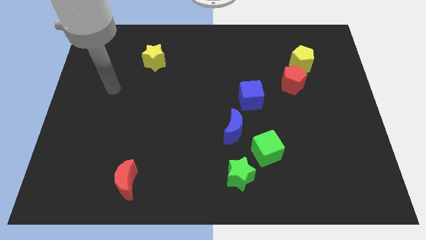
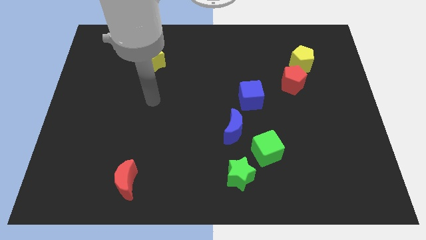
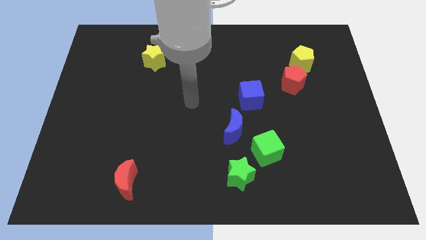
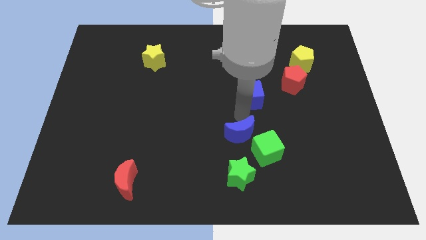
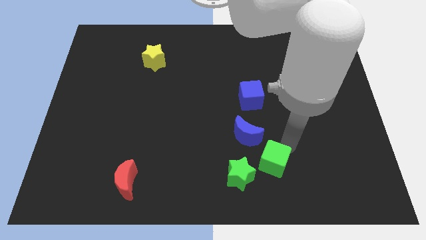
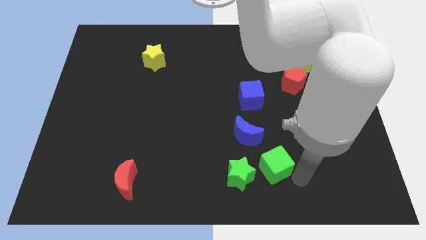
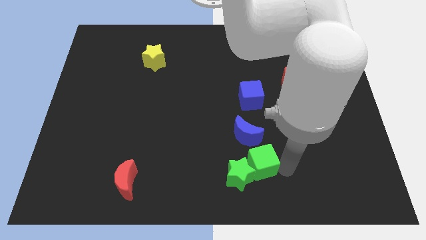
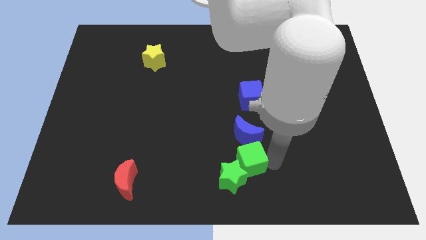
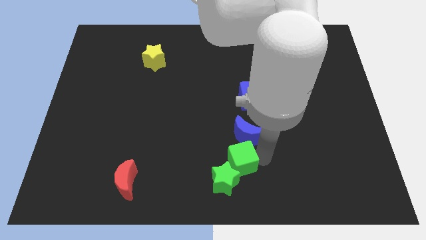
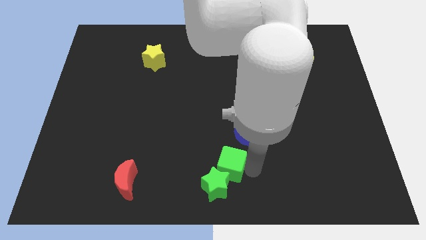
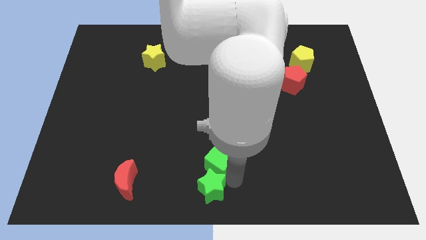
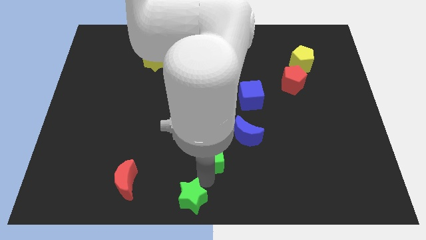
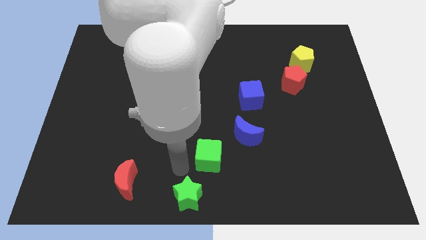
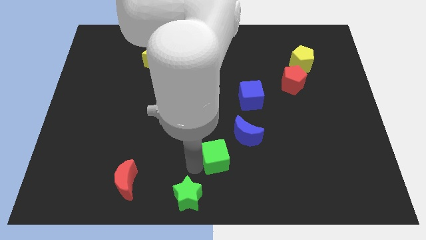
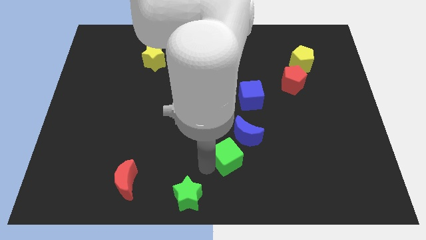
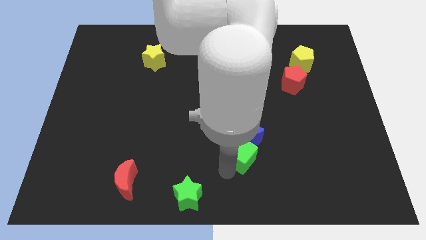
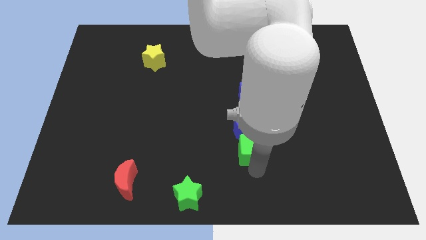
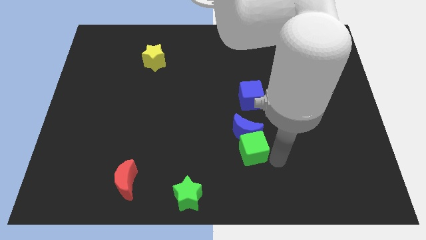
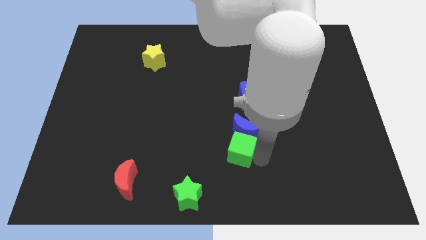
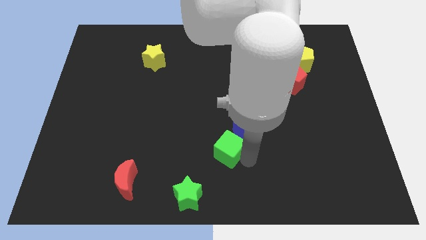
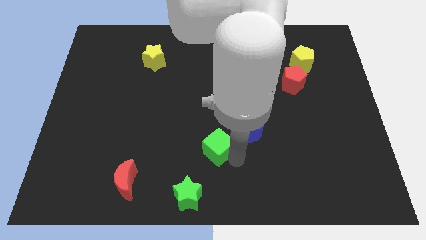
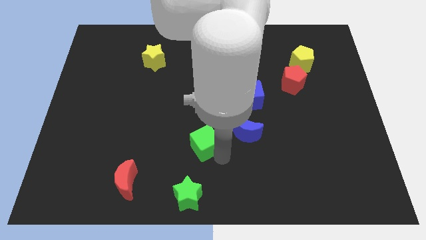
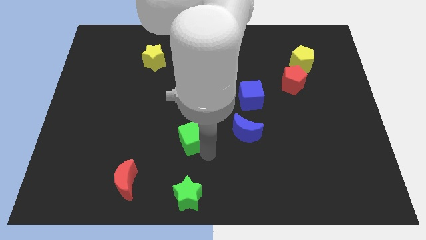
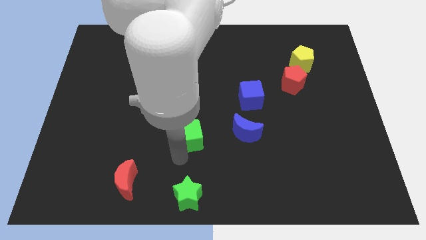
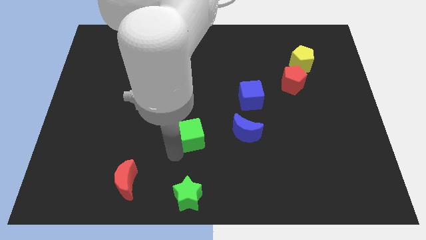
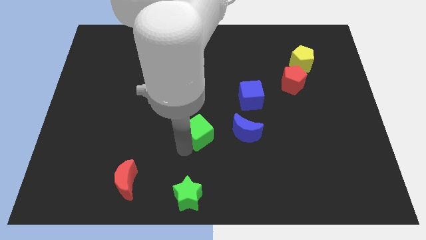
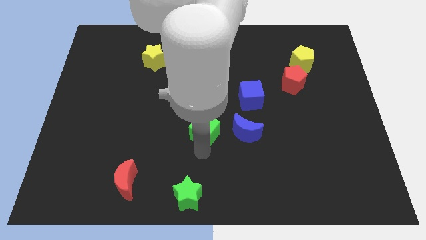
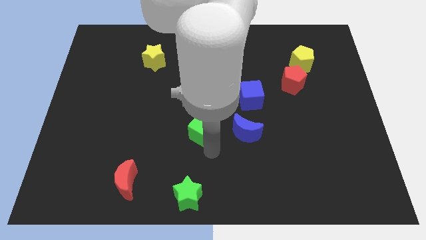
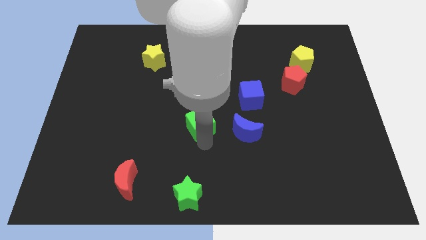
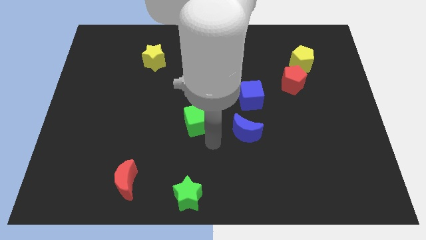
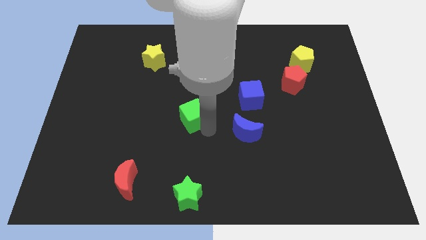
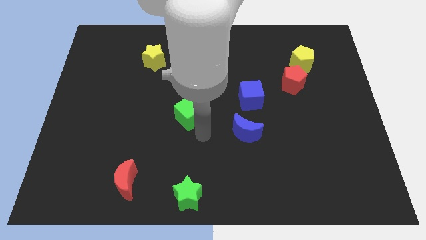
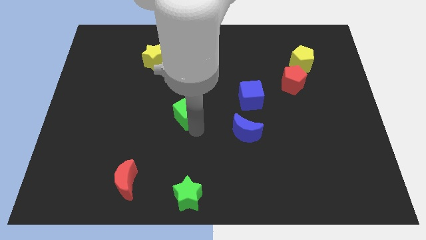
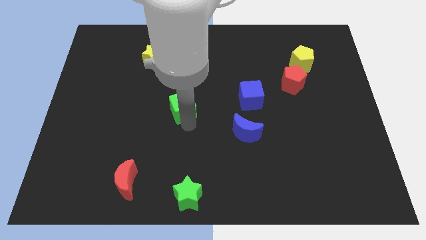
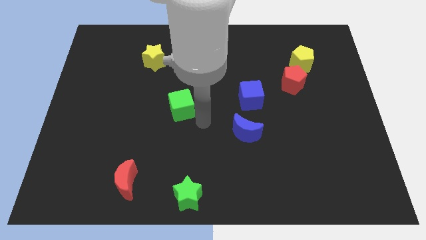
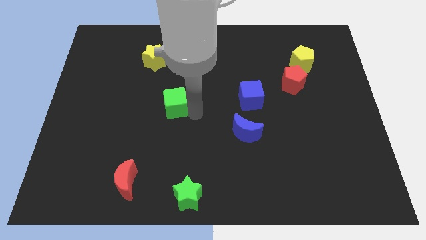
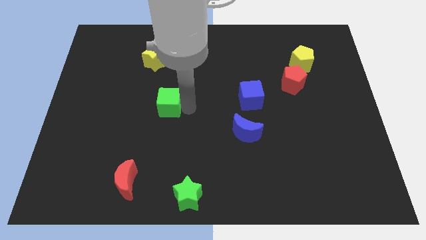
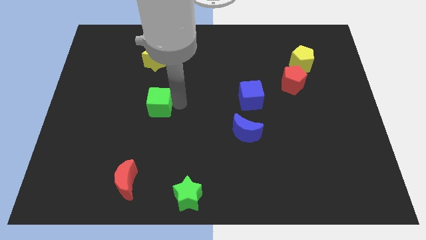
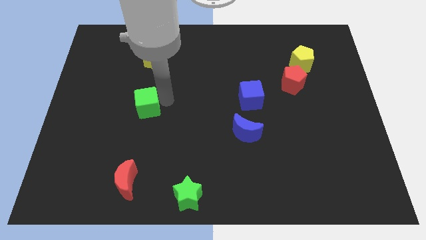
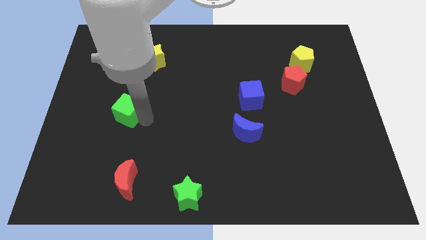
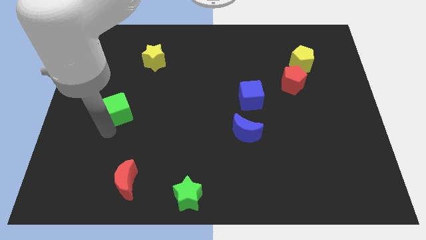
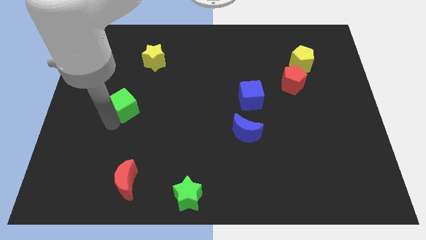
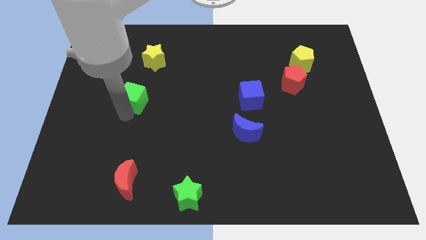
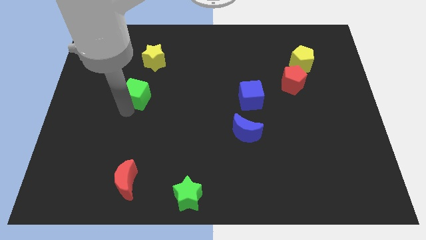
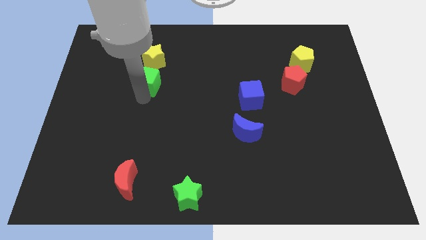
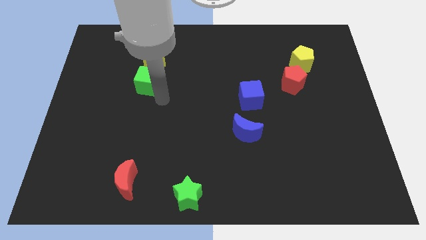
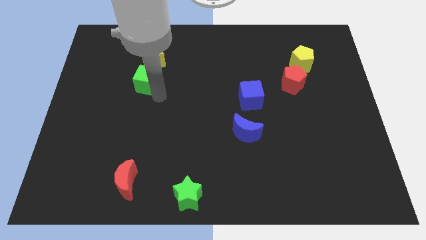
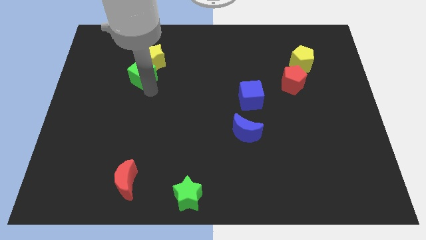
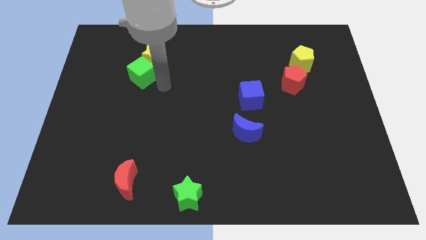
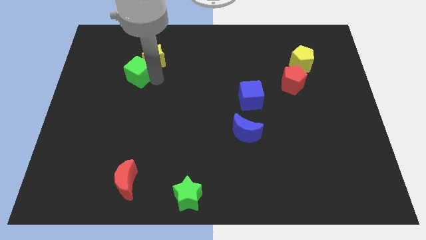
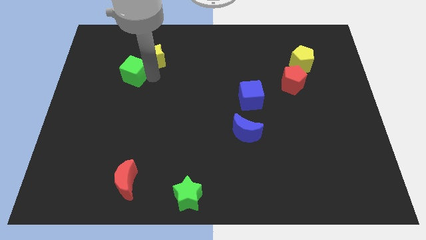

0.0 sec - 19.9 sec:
put the green cube just left of the yellow star

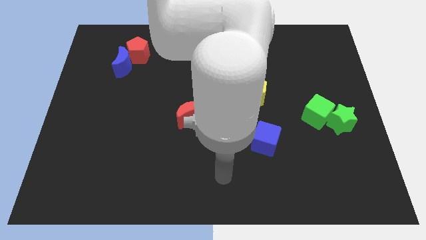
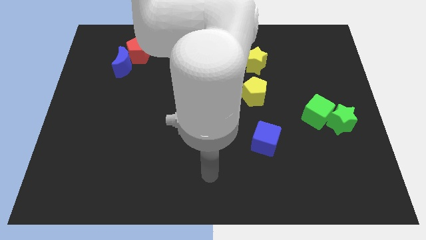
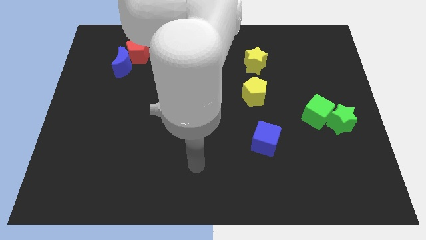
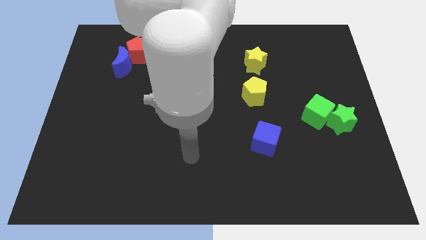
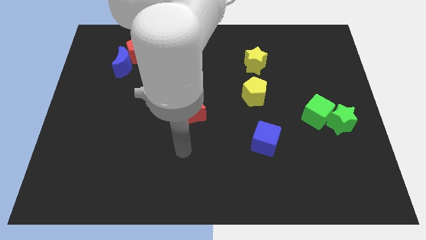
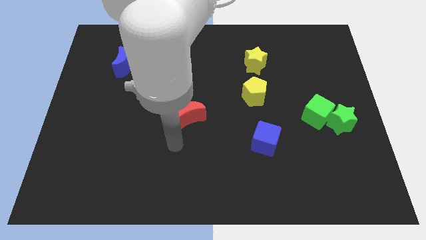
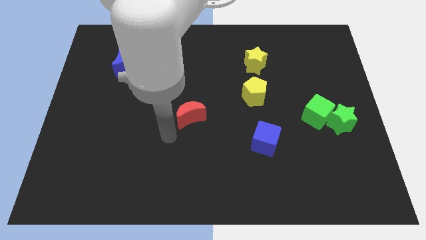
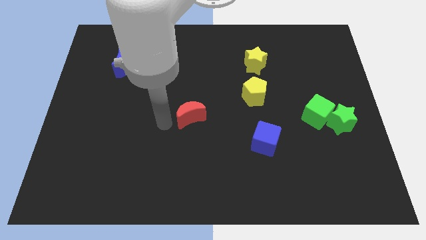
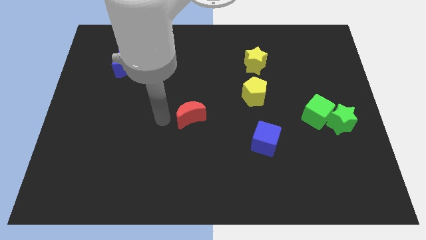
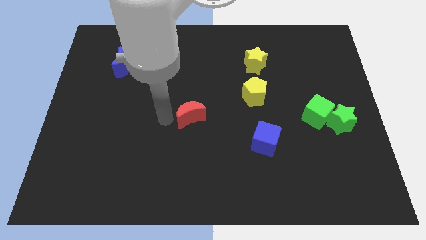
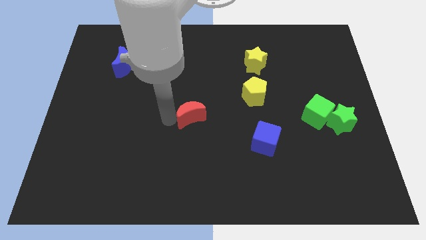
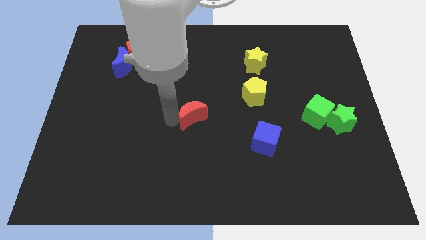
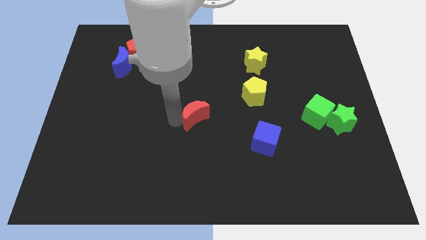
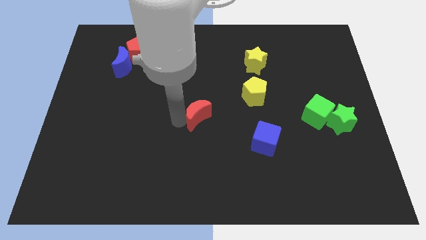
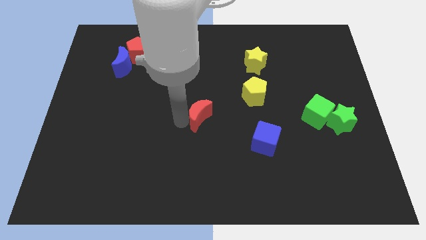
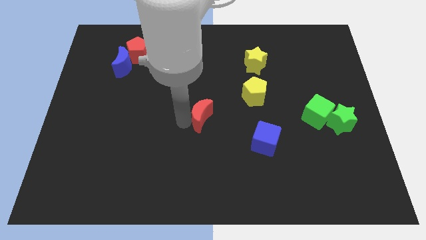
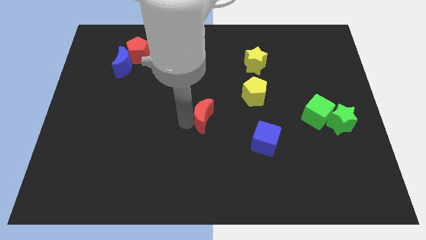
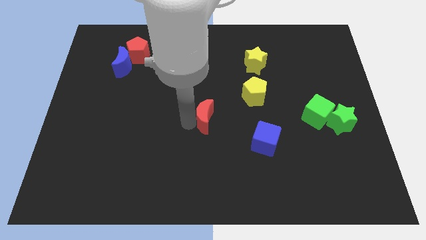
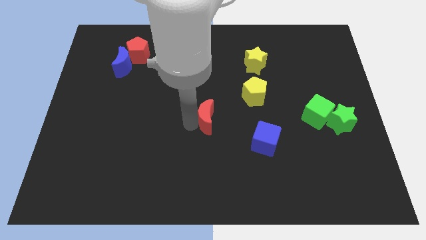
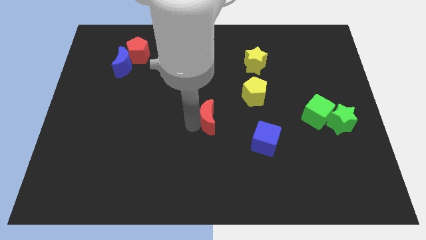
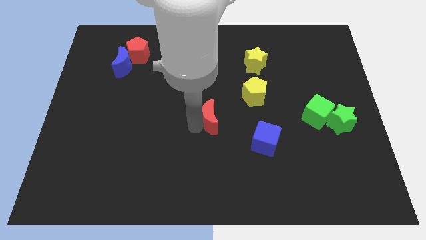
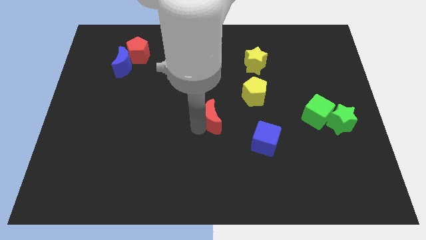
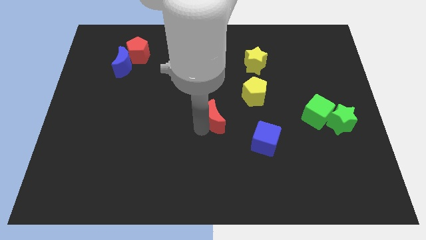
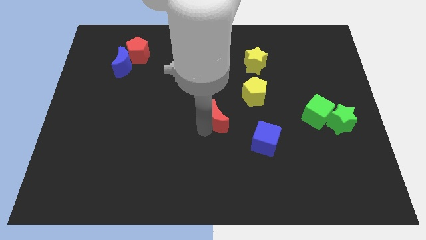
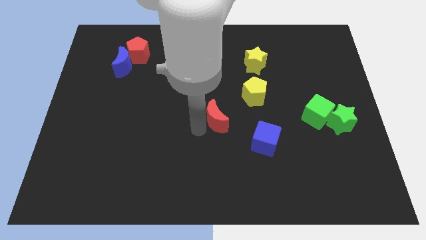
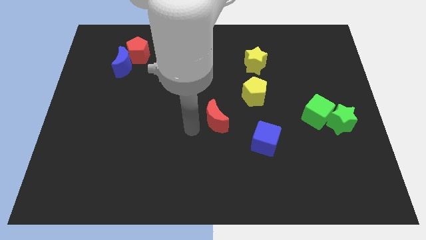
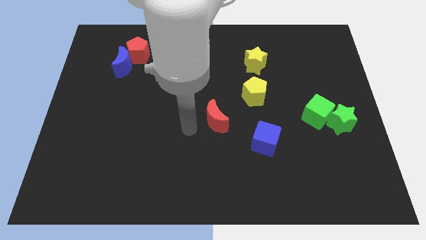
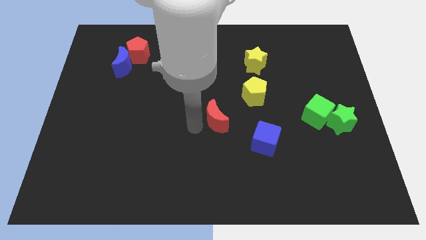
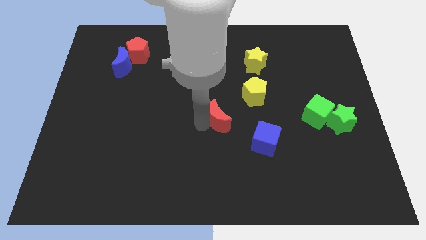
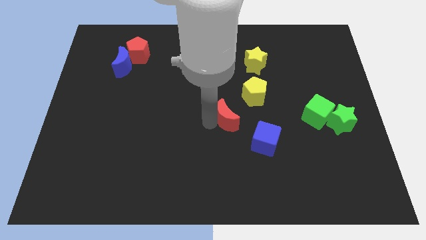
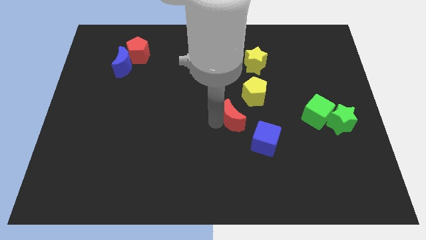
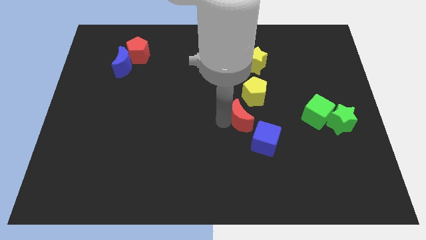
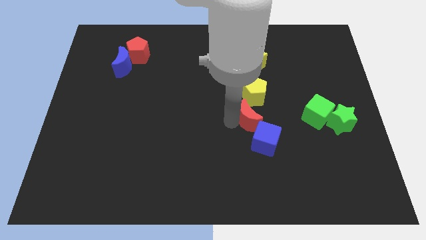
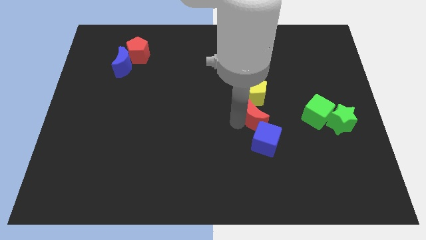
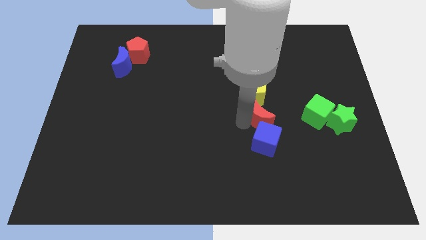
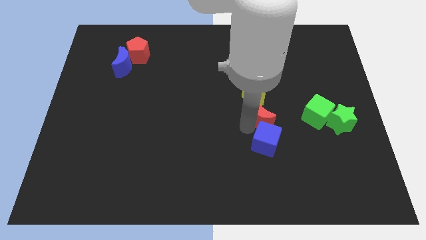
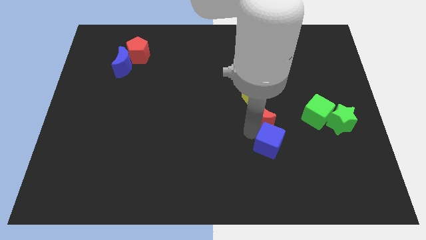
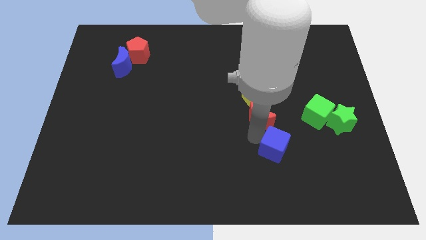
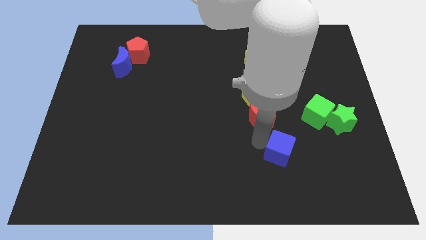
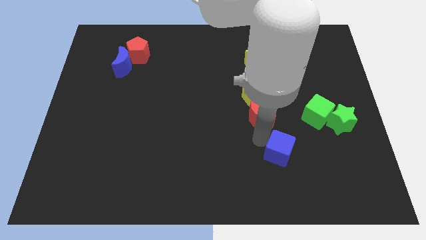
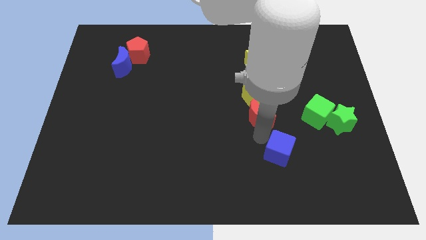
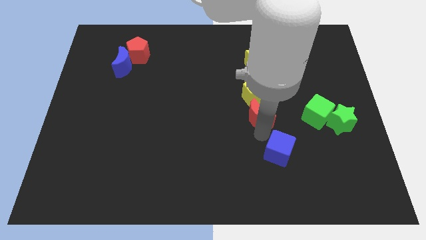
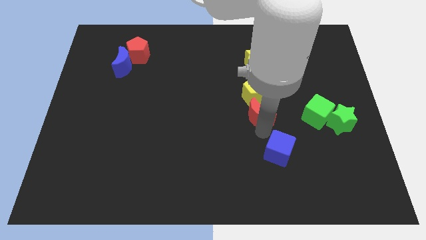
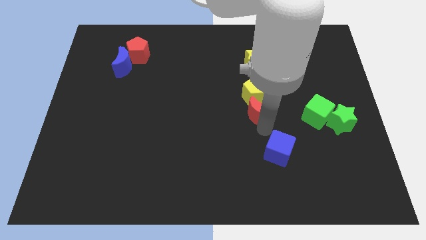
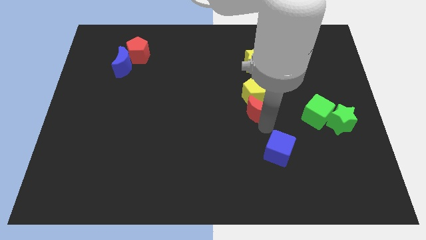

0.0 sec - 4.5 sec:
push the red moon to the bottom of the yellow star
